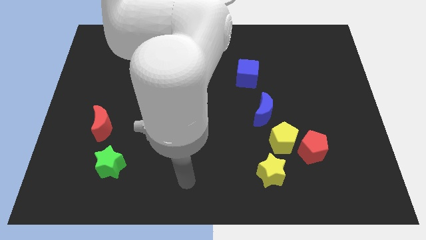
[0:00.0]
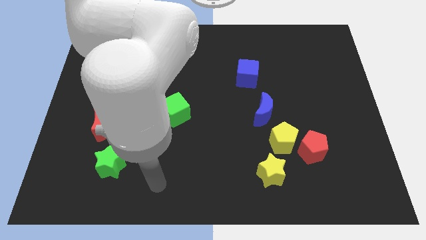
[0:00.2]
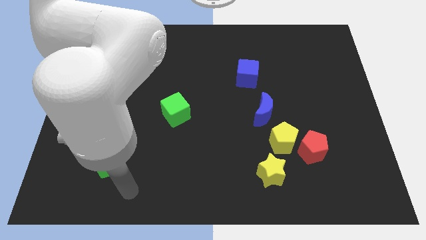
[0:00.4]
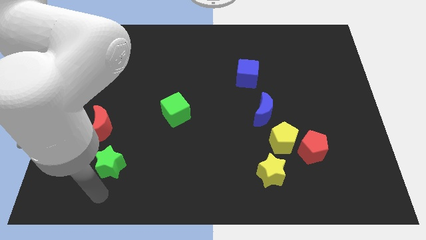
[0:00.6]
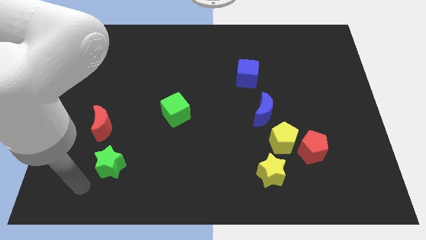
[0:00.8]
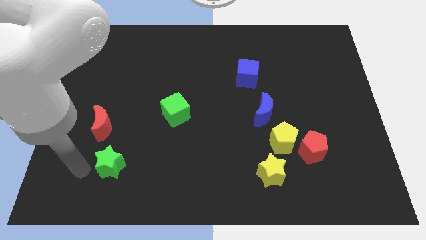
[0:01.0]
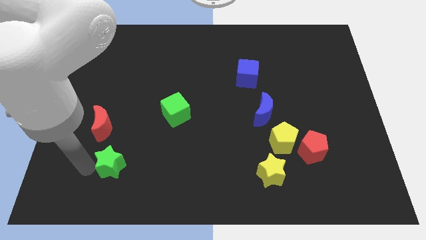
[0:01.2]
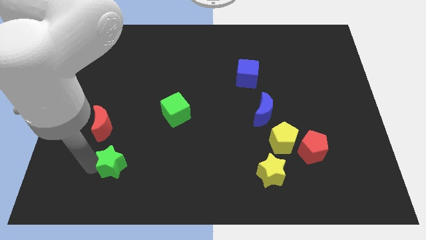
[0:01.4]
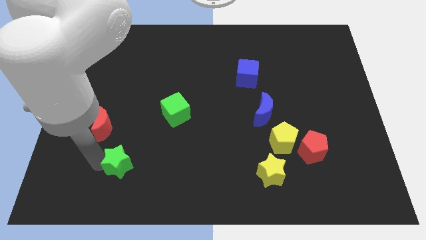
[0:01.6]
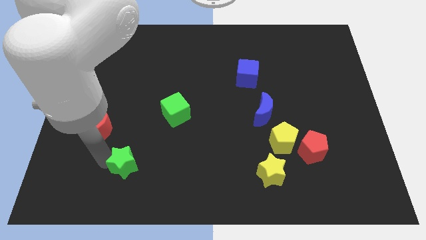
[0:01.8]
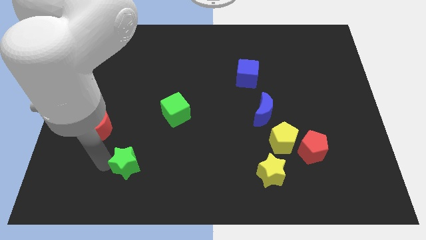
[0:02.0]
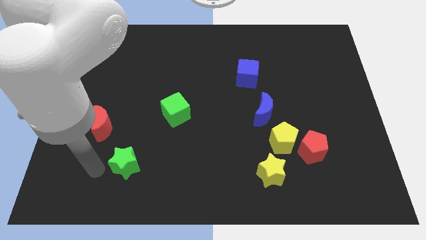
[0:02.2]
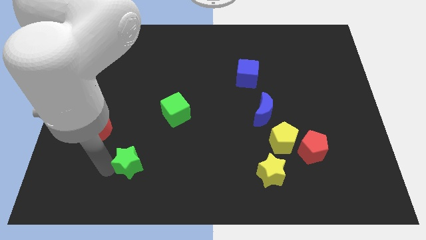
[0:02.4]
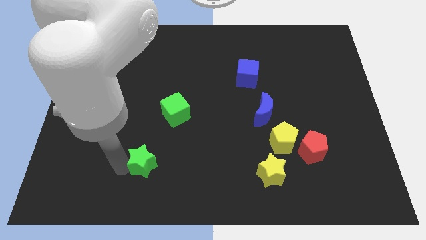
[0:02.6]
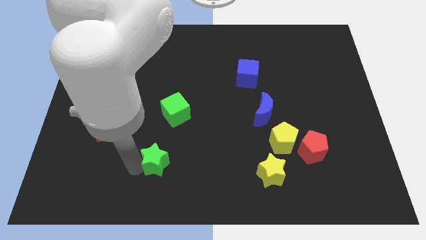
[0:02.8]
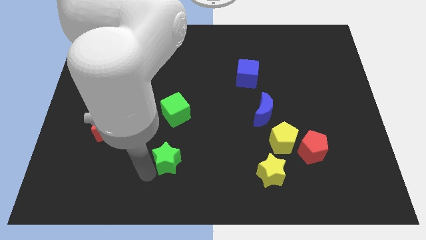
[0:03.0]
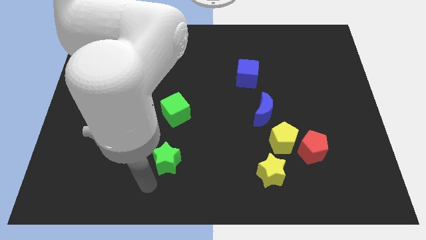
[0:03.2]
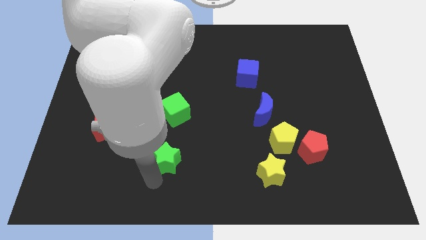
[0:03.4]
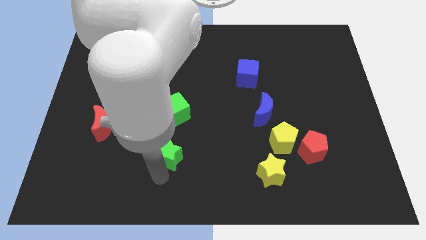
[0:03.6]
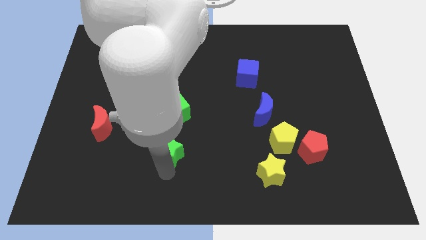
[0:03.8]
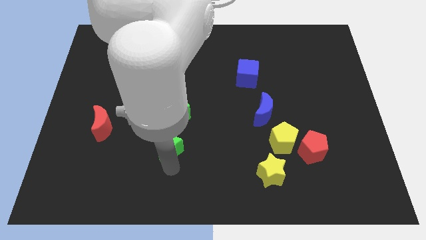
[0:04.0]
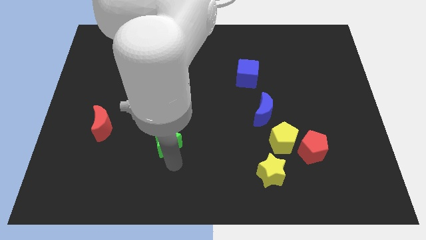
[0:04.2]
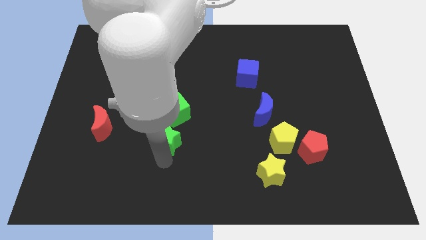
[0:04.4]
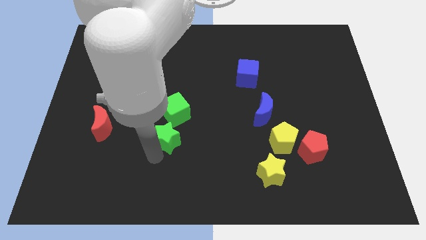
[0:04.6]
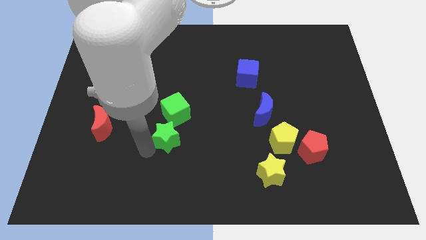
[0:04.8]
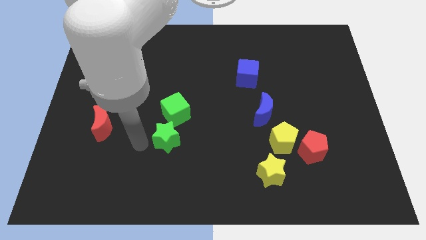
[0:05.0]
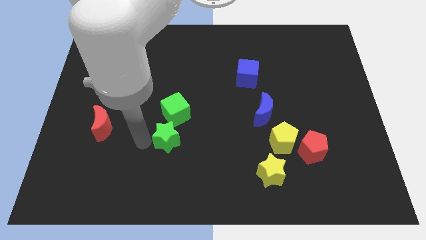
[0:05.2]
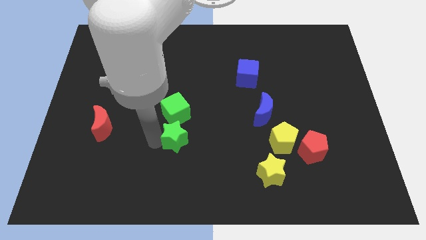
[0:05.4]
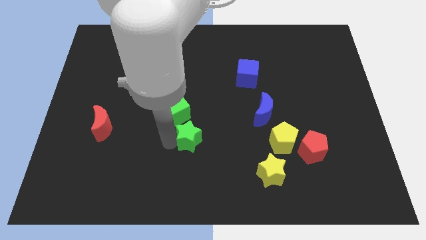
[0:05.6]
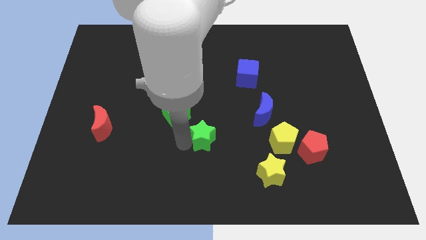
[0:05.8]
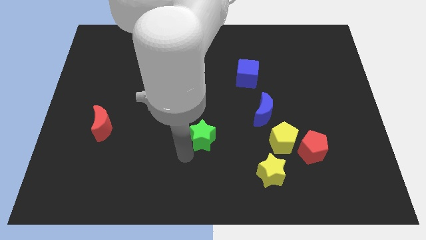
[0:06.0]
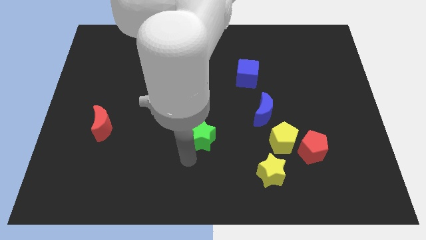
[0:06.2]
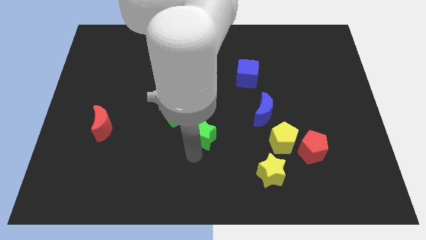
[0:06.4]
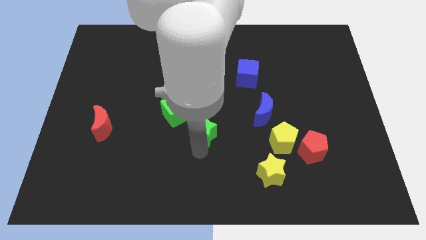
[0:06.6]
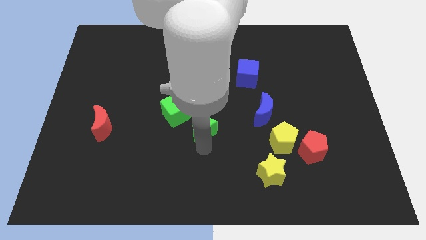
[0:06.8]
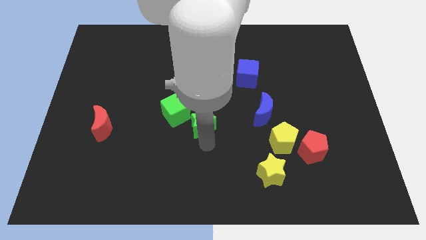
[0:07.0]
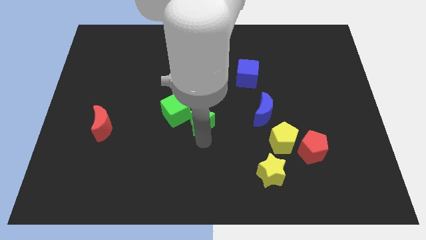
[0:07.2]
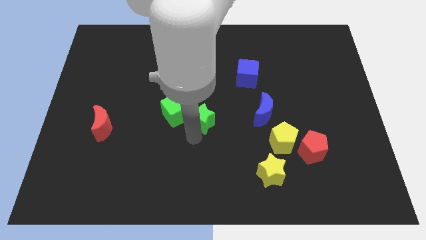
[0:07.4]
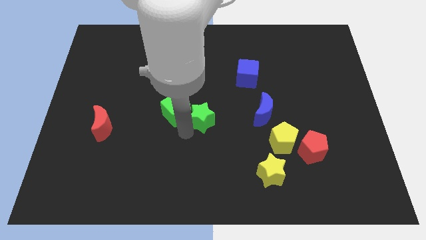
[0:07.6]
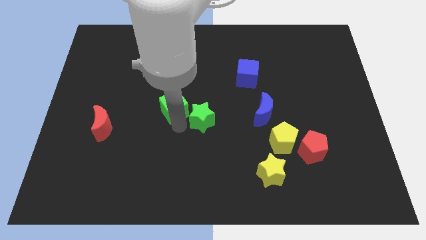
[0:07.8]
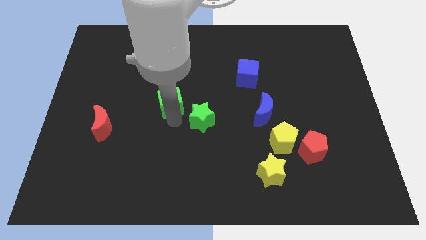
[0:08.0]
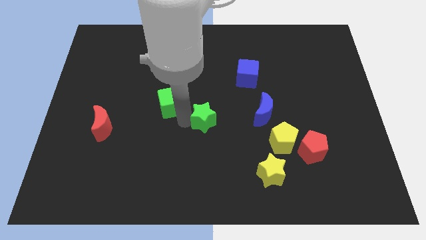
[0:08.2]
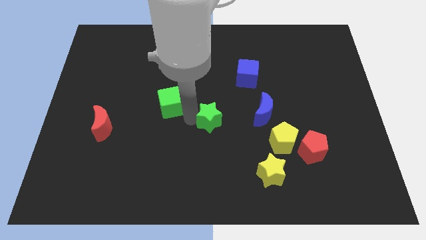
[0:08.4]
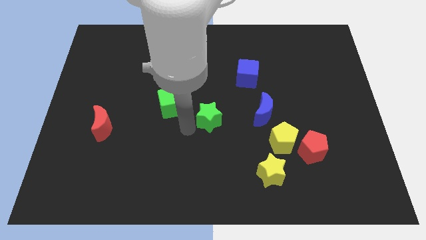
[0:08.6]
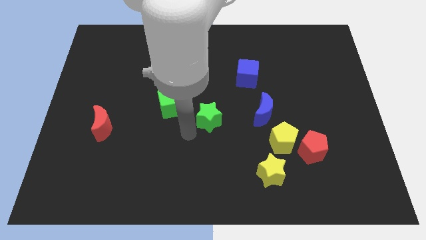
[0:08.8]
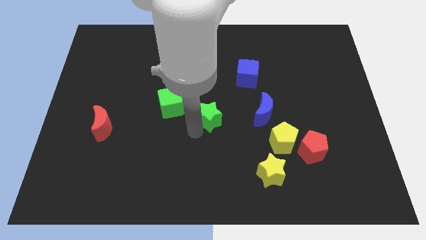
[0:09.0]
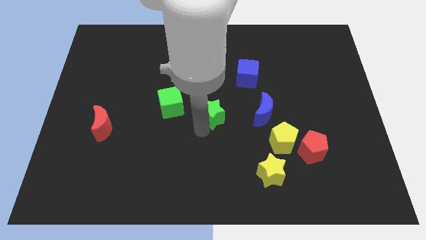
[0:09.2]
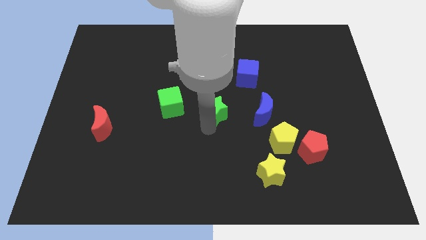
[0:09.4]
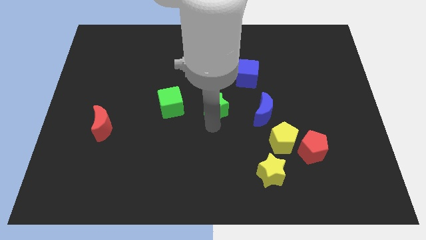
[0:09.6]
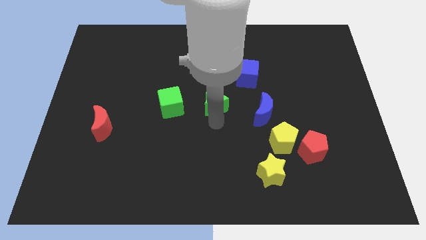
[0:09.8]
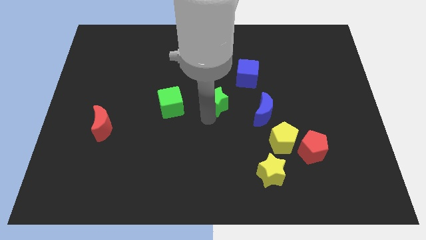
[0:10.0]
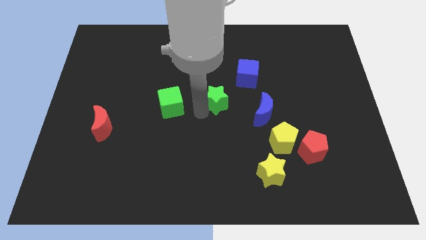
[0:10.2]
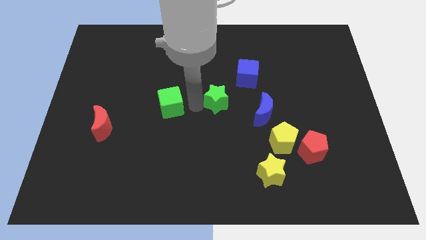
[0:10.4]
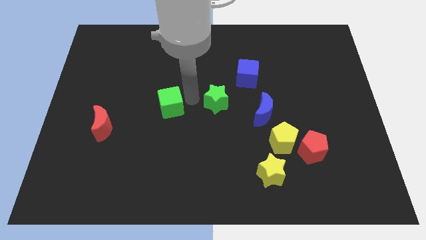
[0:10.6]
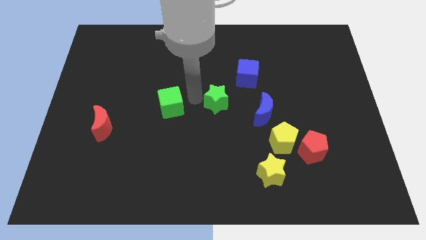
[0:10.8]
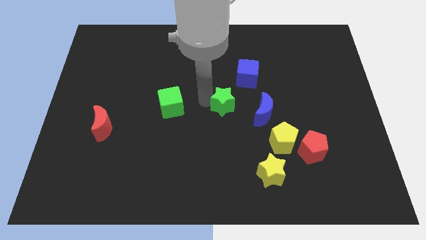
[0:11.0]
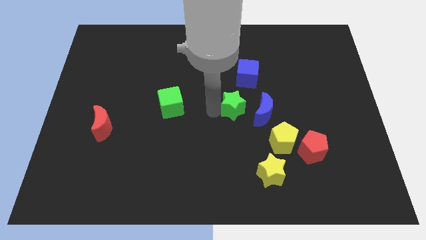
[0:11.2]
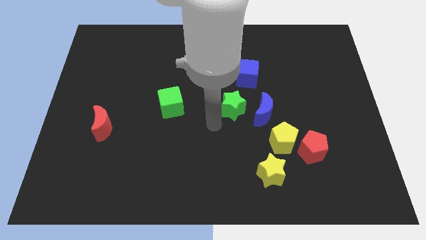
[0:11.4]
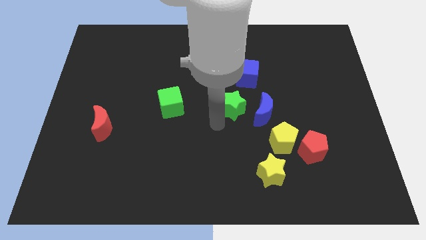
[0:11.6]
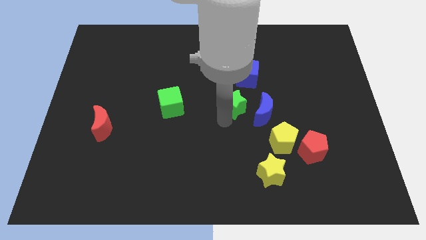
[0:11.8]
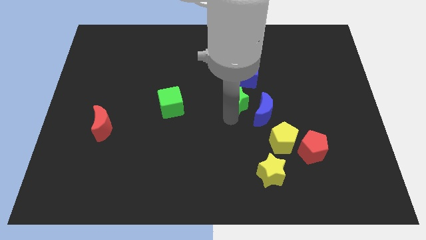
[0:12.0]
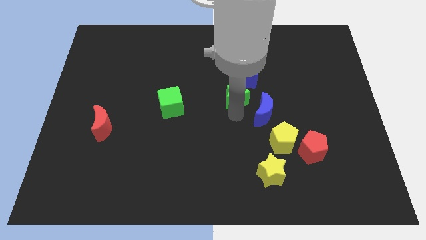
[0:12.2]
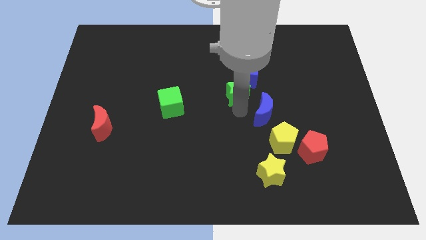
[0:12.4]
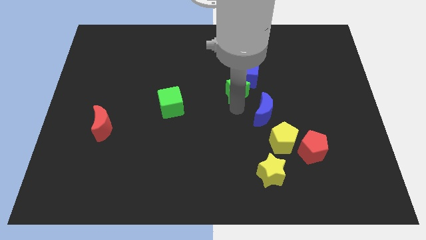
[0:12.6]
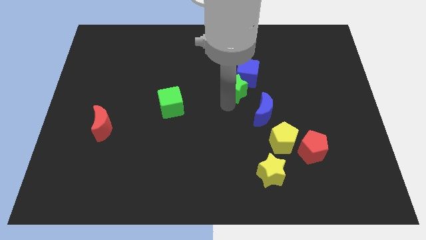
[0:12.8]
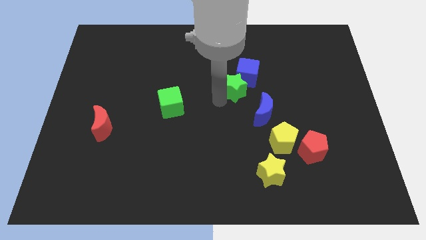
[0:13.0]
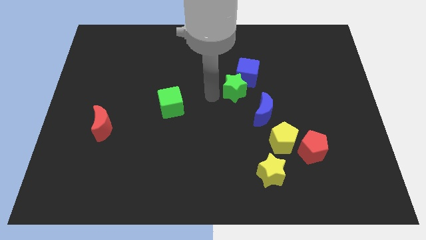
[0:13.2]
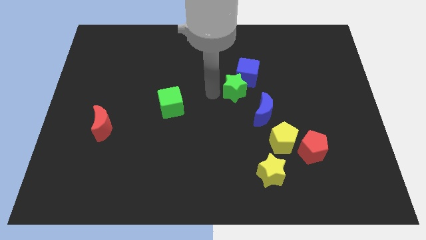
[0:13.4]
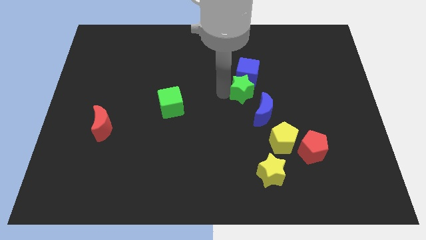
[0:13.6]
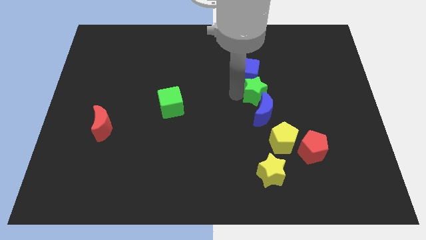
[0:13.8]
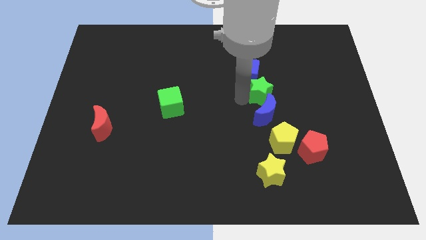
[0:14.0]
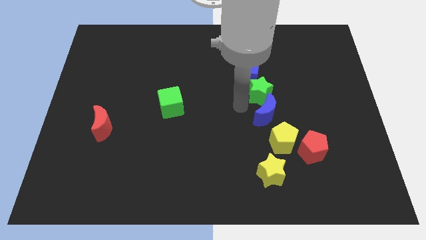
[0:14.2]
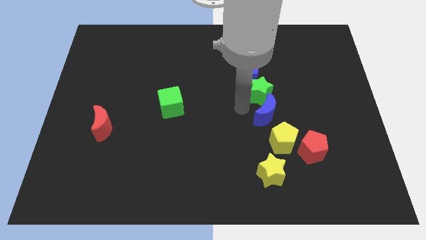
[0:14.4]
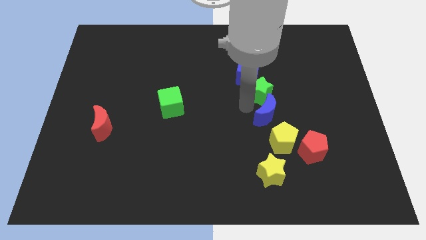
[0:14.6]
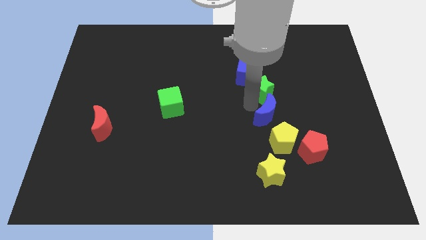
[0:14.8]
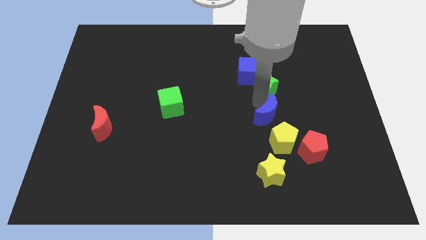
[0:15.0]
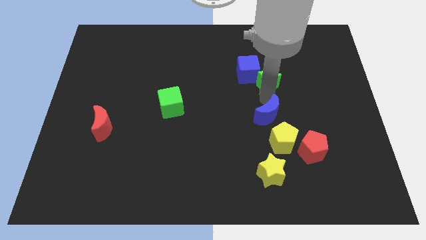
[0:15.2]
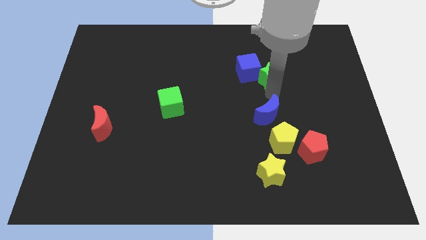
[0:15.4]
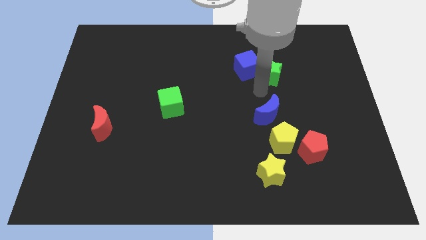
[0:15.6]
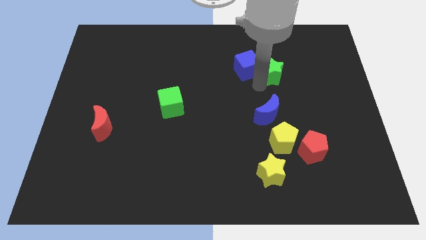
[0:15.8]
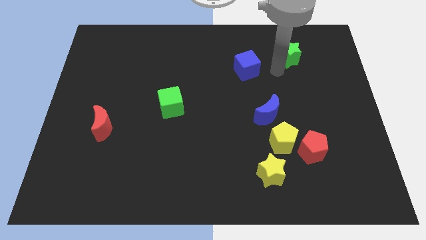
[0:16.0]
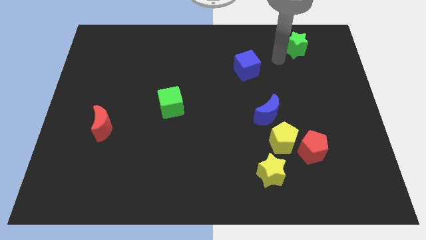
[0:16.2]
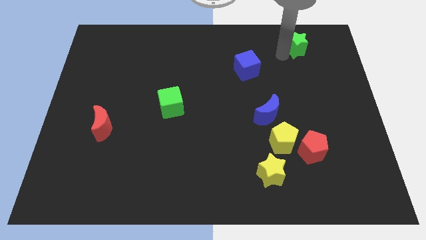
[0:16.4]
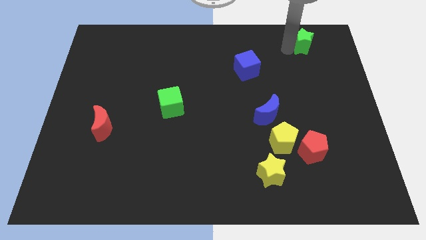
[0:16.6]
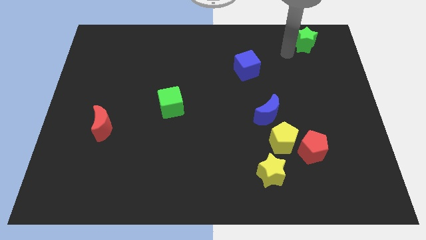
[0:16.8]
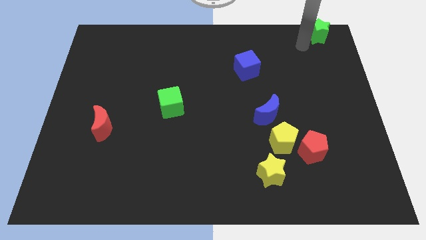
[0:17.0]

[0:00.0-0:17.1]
move the green star to the top right corner
